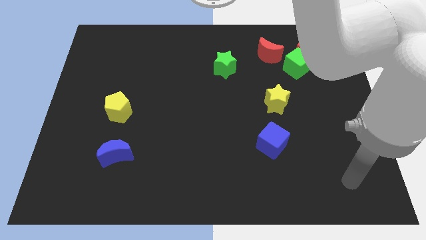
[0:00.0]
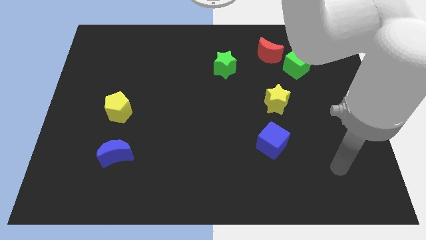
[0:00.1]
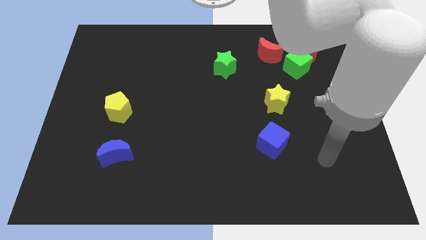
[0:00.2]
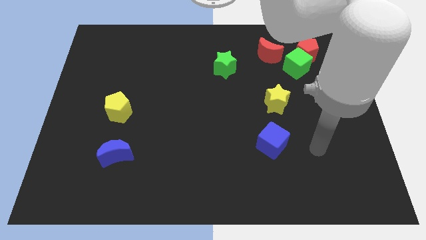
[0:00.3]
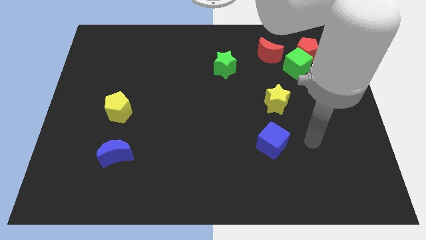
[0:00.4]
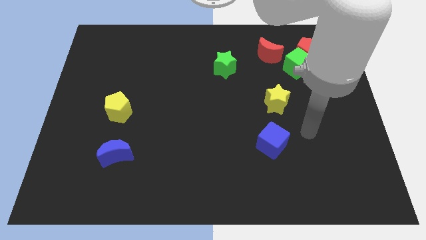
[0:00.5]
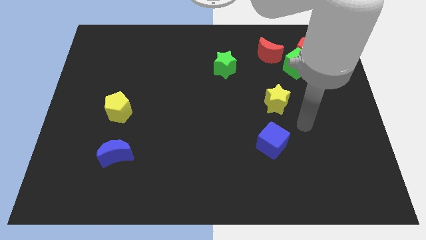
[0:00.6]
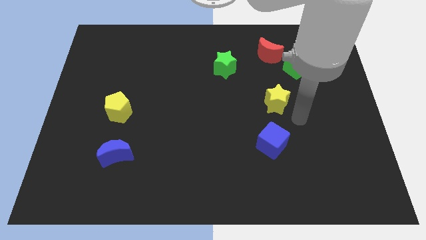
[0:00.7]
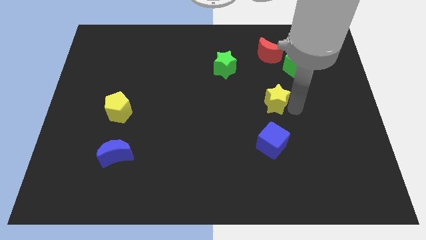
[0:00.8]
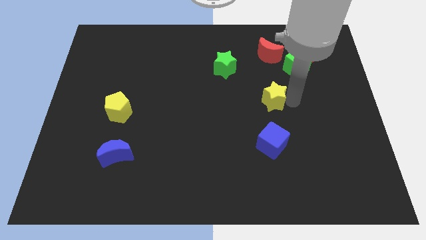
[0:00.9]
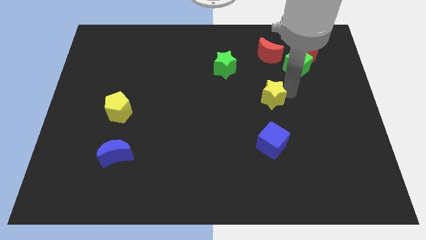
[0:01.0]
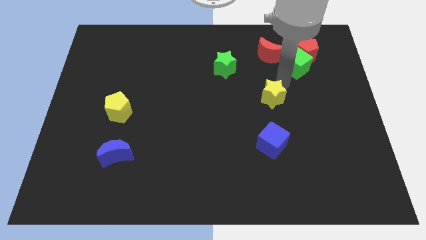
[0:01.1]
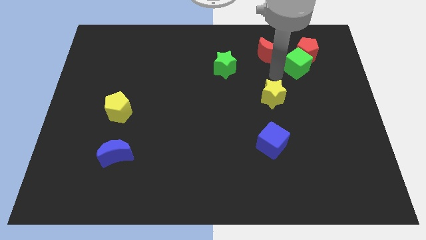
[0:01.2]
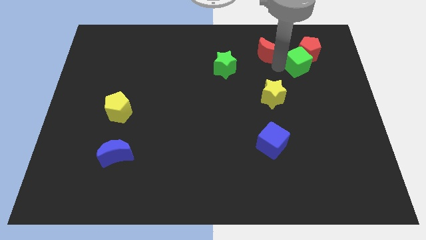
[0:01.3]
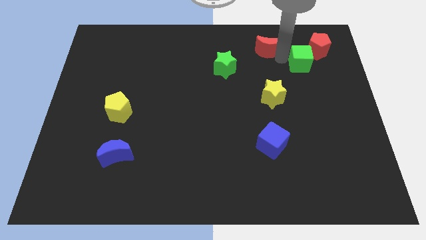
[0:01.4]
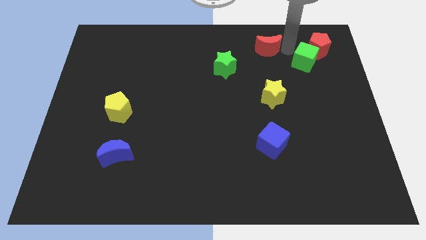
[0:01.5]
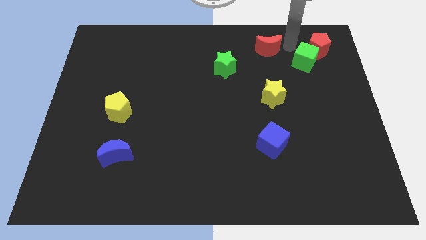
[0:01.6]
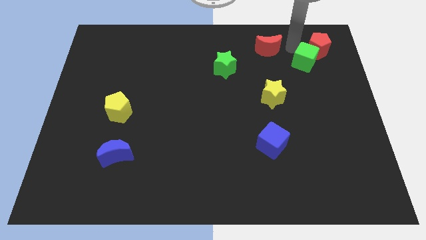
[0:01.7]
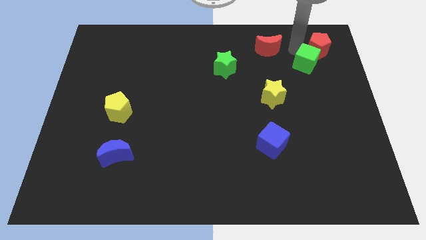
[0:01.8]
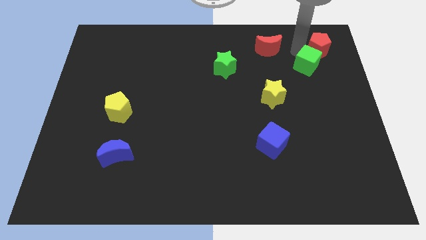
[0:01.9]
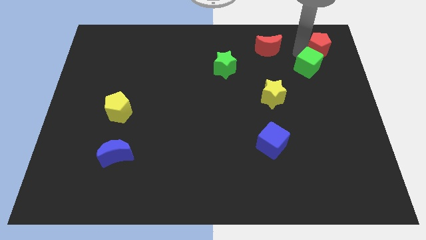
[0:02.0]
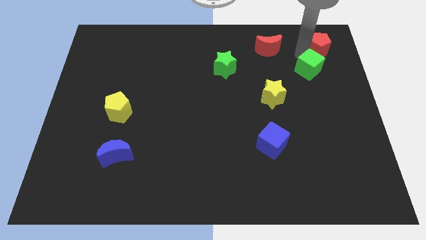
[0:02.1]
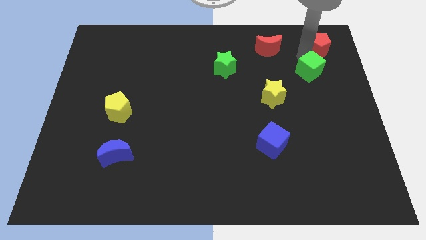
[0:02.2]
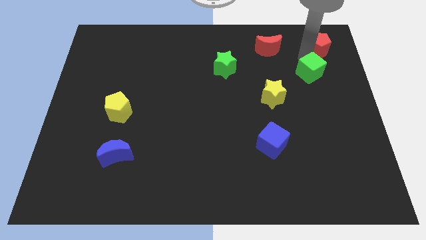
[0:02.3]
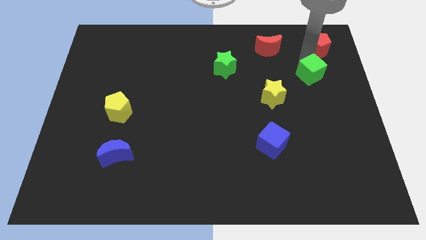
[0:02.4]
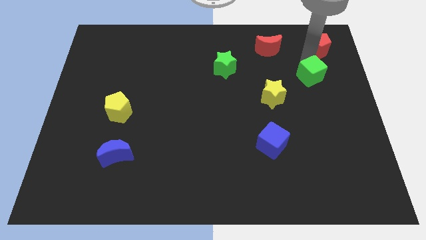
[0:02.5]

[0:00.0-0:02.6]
move the green cube away from the red pentagon and red moon

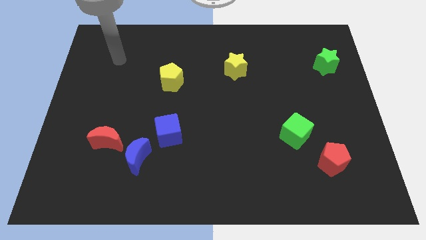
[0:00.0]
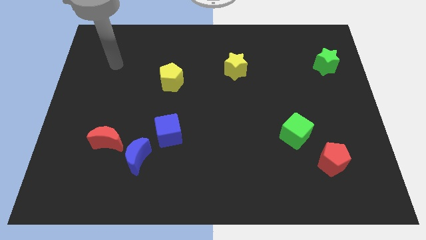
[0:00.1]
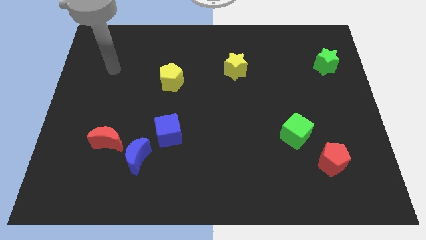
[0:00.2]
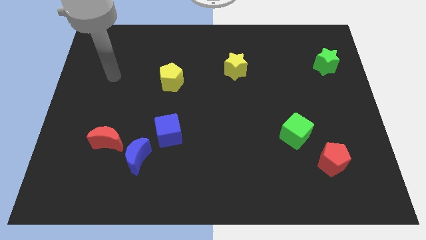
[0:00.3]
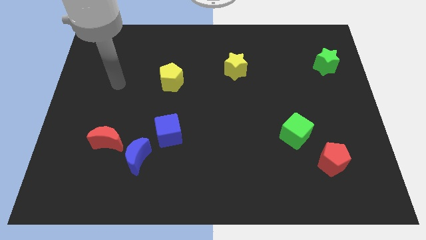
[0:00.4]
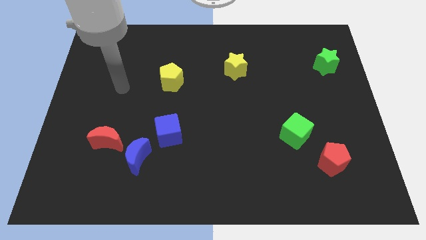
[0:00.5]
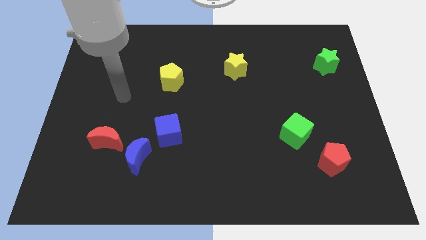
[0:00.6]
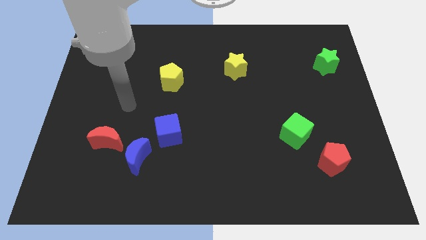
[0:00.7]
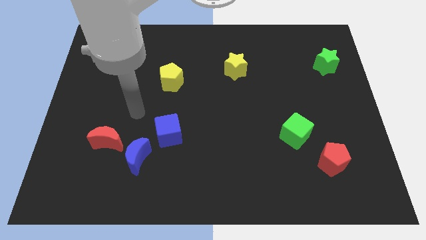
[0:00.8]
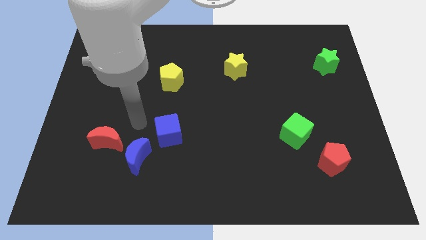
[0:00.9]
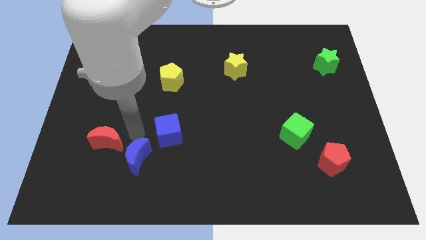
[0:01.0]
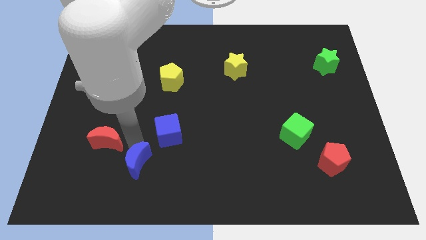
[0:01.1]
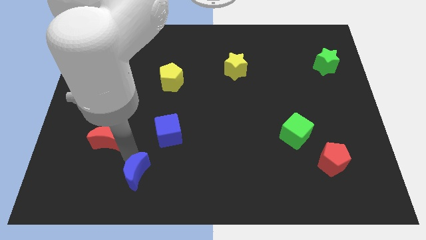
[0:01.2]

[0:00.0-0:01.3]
pull the red moon apart from the blue moon

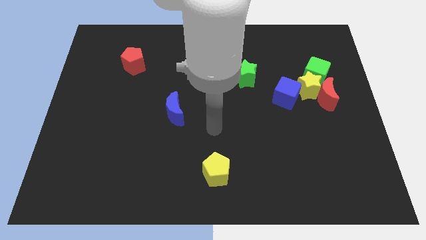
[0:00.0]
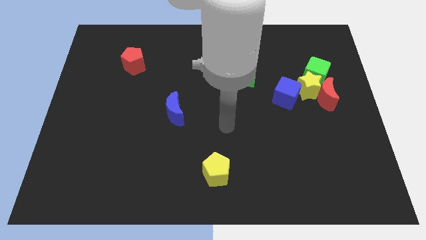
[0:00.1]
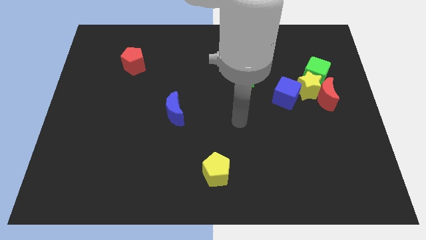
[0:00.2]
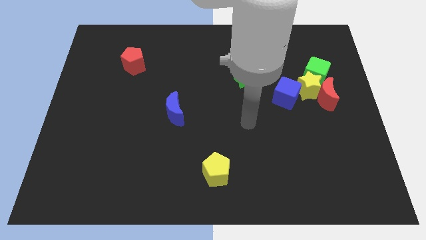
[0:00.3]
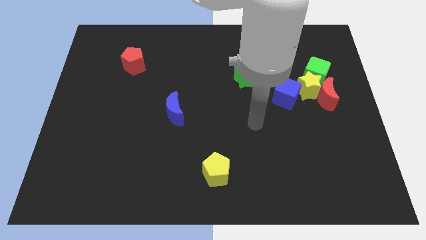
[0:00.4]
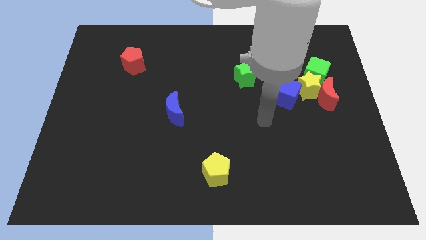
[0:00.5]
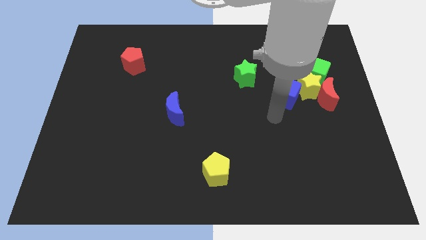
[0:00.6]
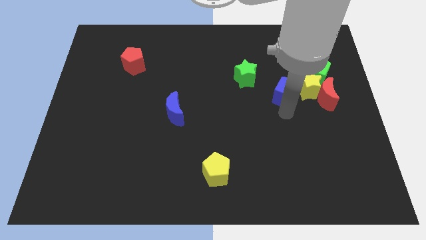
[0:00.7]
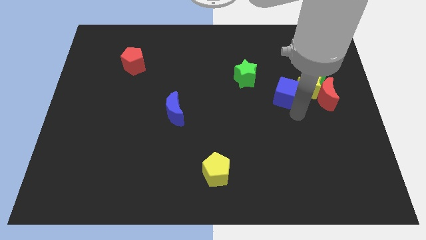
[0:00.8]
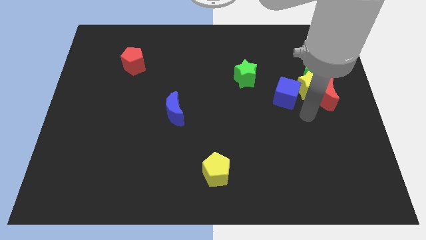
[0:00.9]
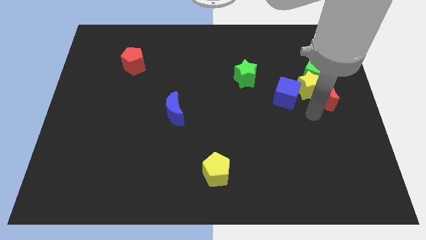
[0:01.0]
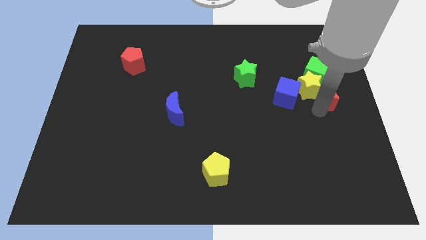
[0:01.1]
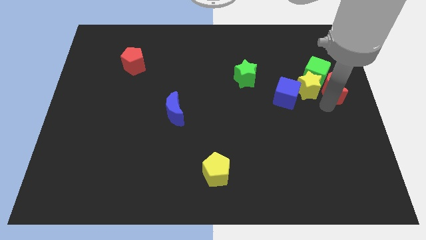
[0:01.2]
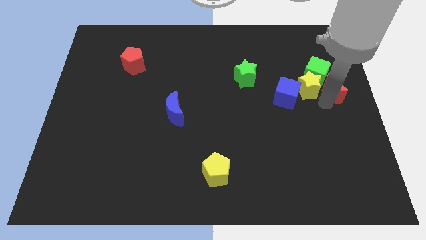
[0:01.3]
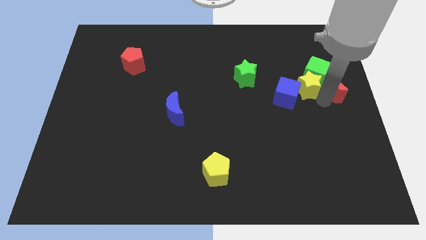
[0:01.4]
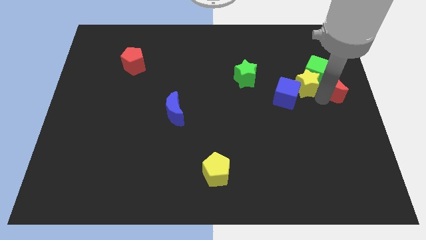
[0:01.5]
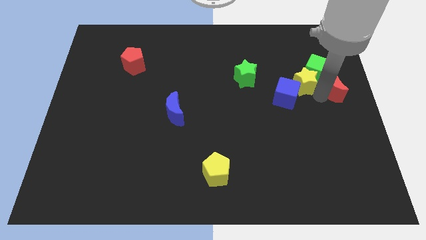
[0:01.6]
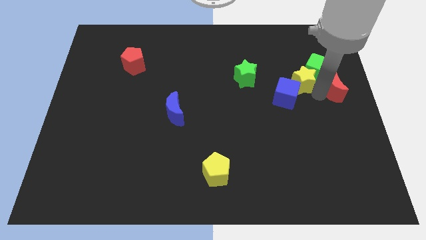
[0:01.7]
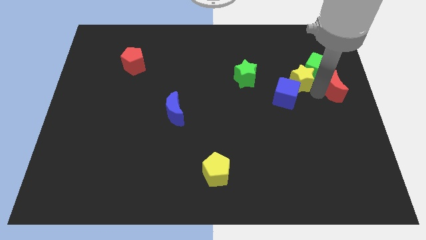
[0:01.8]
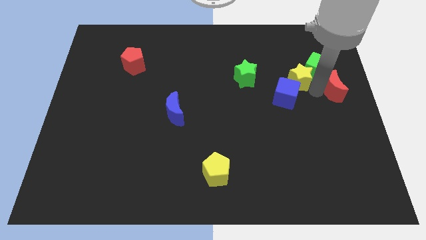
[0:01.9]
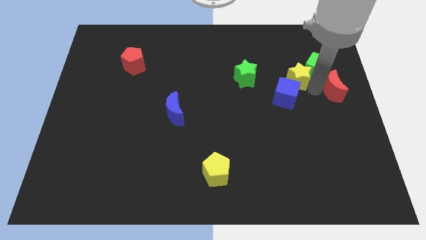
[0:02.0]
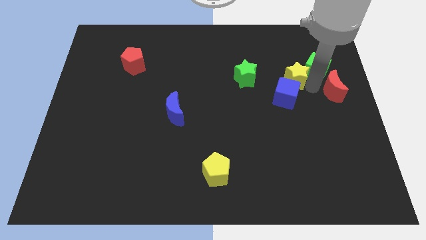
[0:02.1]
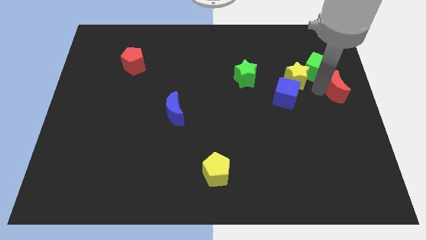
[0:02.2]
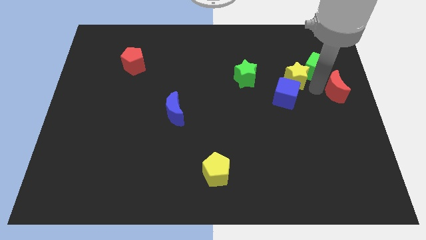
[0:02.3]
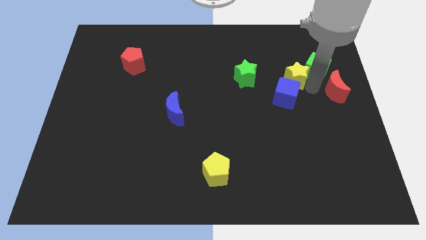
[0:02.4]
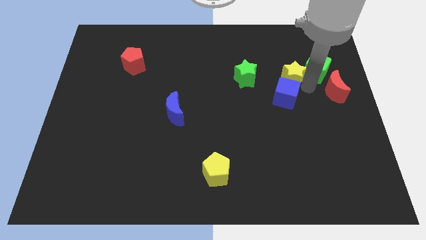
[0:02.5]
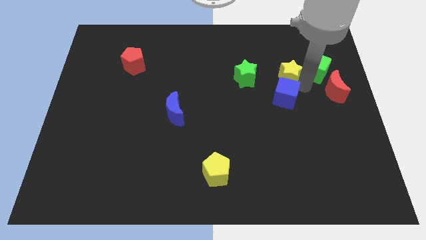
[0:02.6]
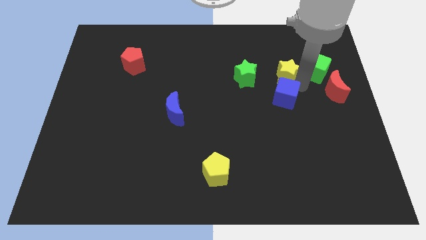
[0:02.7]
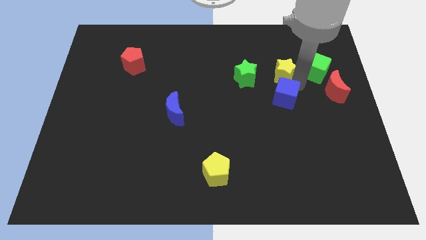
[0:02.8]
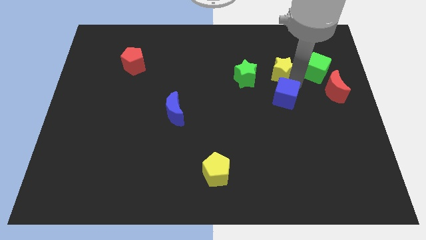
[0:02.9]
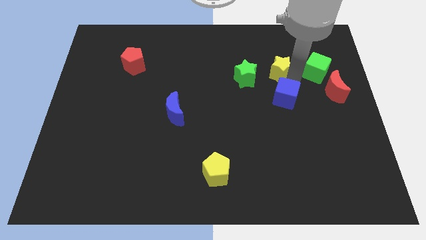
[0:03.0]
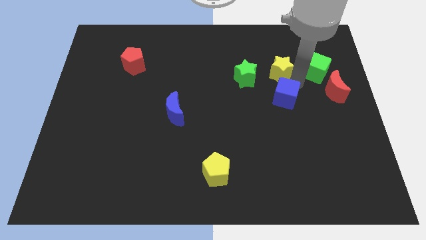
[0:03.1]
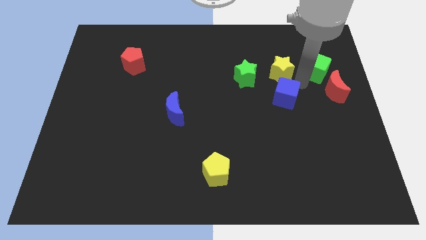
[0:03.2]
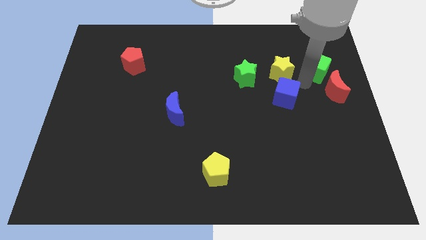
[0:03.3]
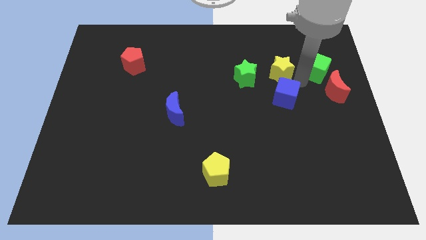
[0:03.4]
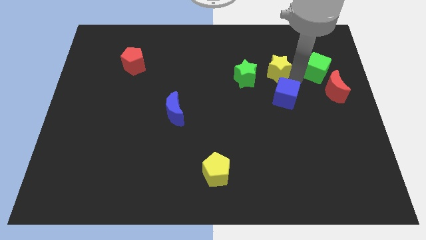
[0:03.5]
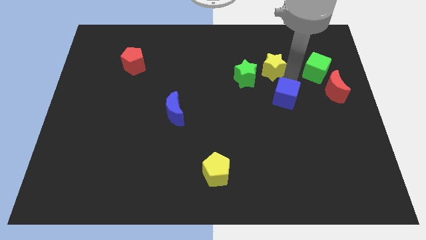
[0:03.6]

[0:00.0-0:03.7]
pull the yellow star apart from the clump

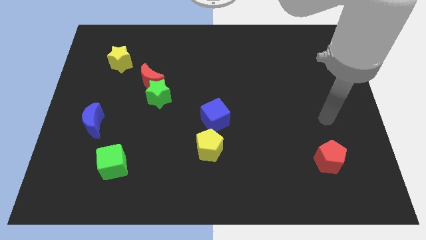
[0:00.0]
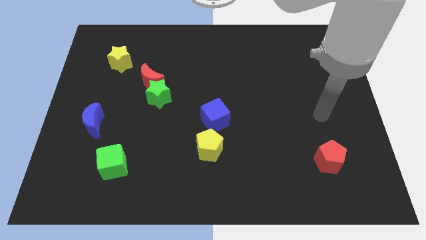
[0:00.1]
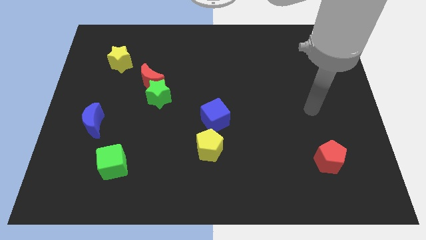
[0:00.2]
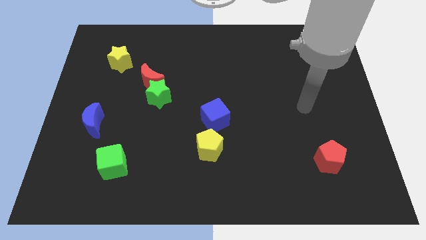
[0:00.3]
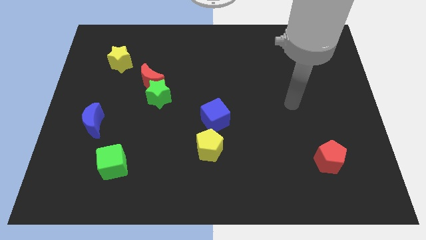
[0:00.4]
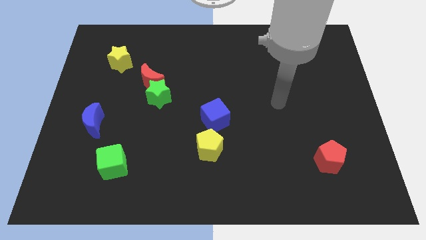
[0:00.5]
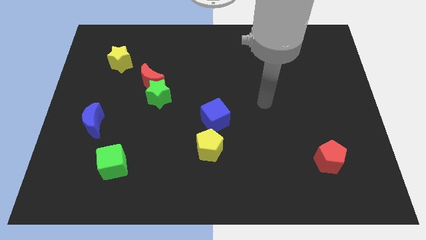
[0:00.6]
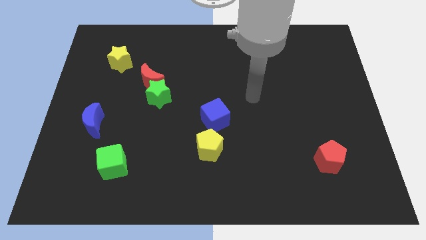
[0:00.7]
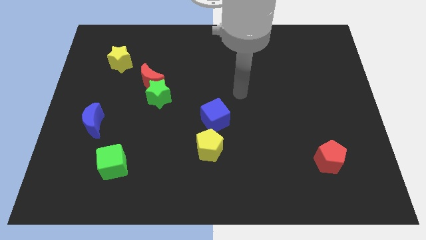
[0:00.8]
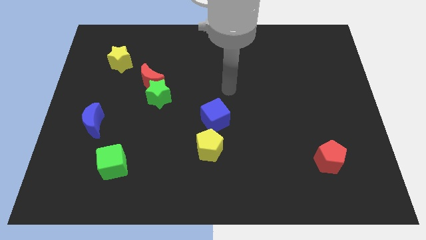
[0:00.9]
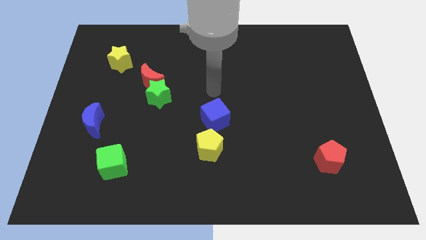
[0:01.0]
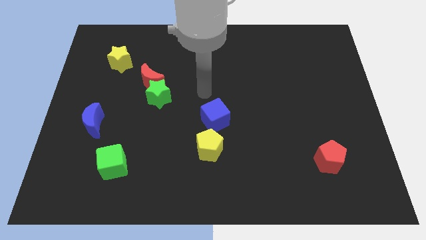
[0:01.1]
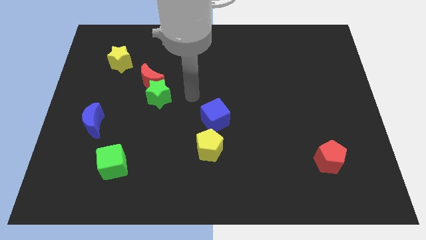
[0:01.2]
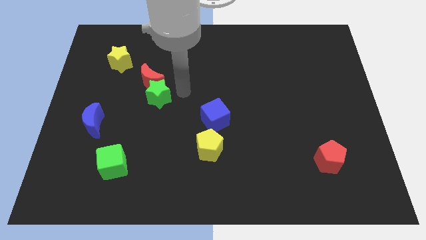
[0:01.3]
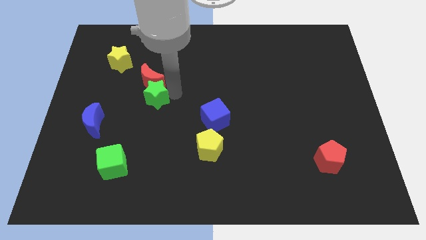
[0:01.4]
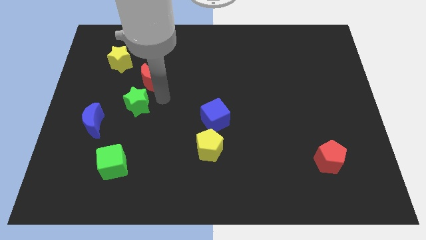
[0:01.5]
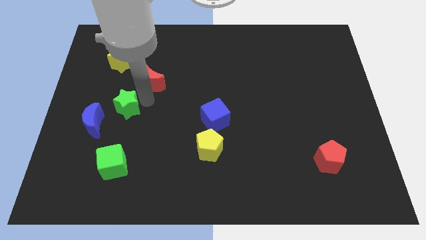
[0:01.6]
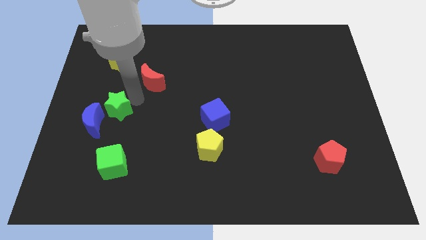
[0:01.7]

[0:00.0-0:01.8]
separate the red moon from the green star
